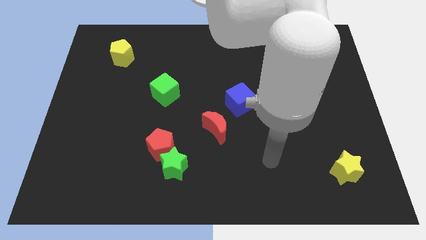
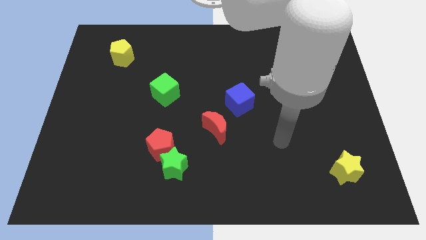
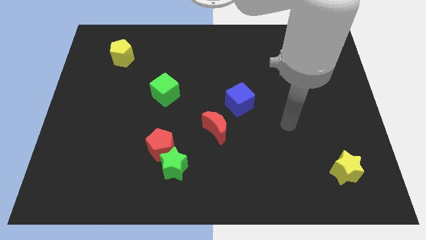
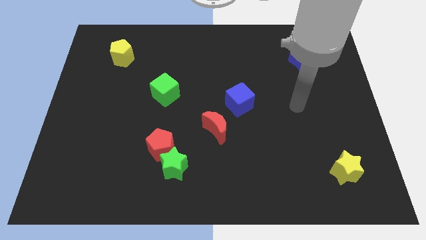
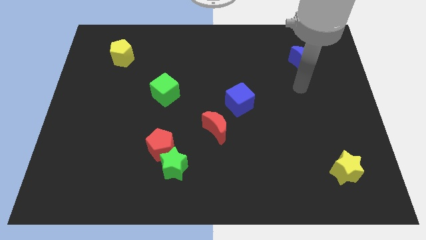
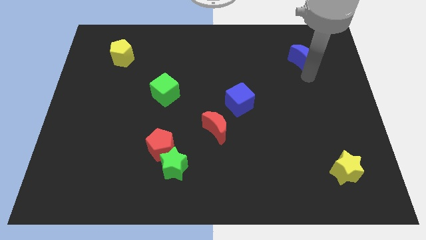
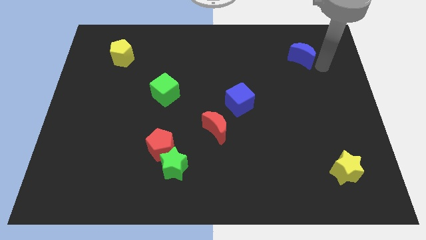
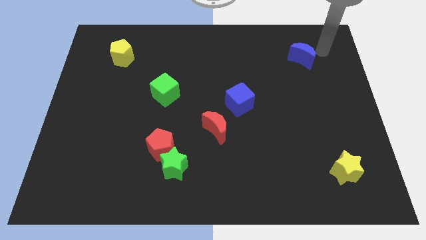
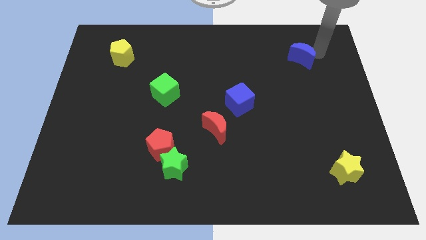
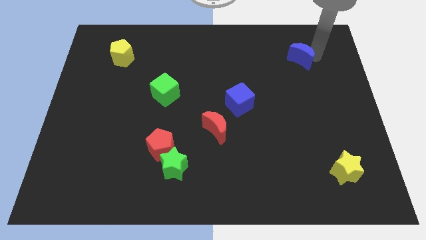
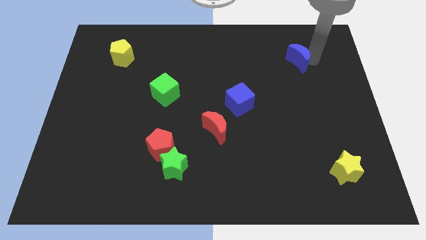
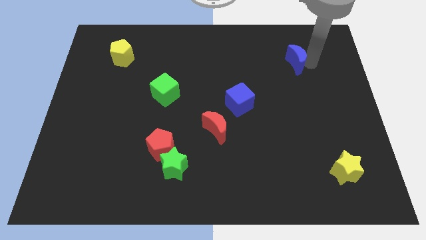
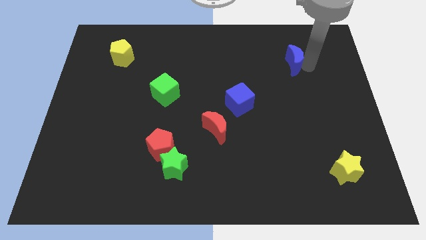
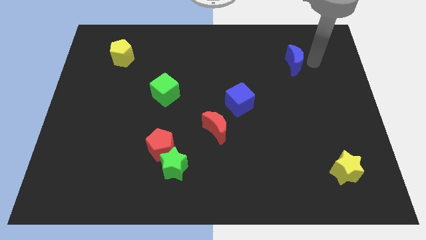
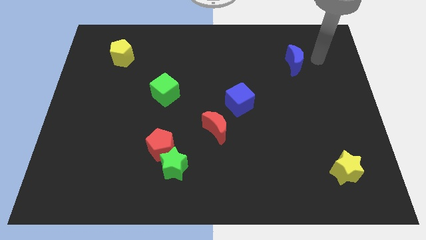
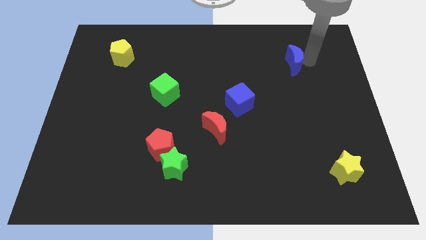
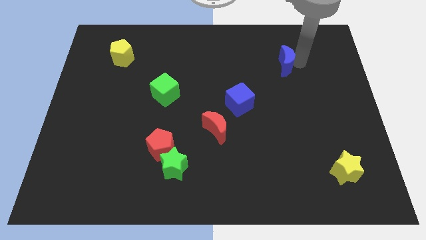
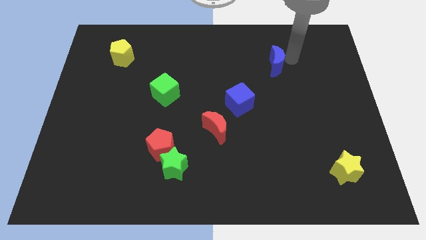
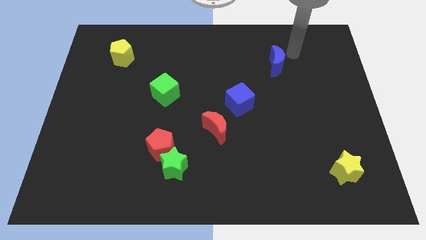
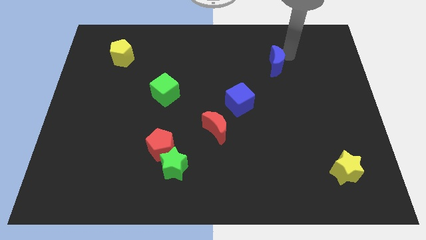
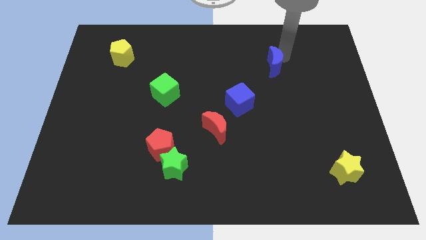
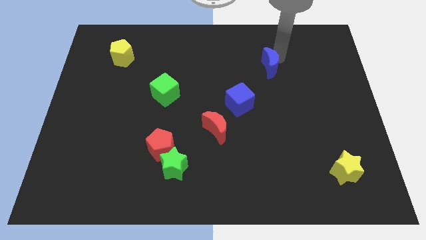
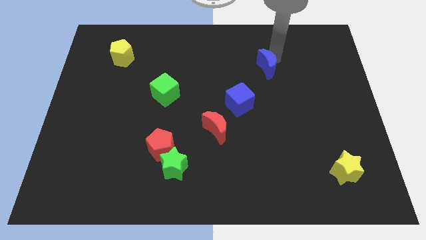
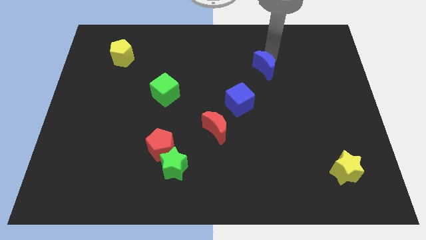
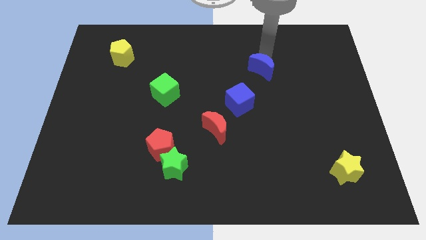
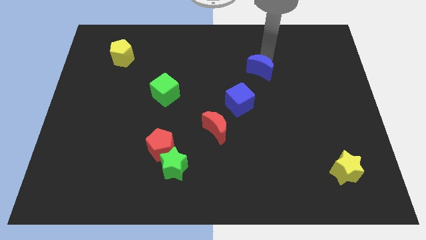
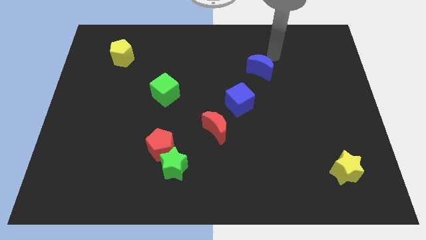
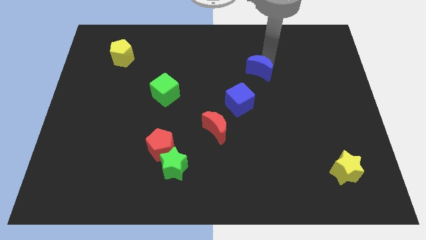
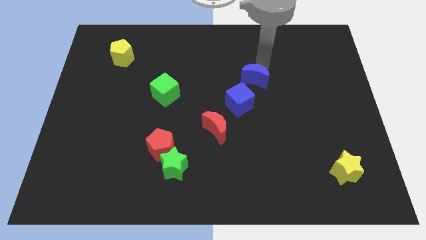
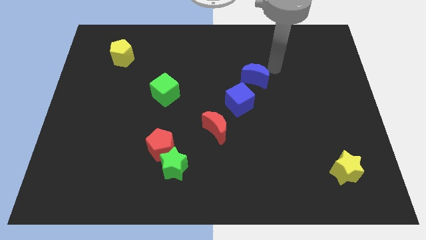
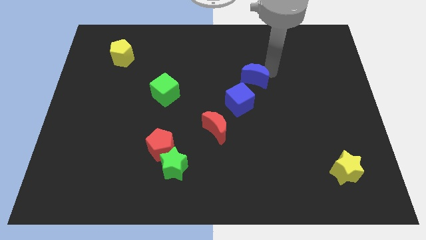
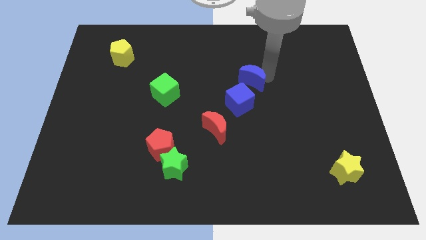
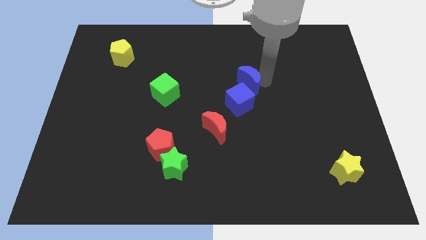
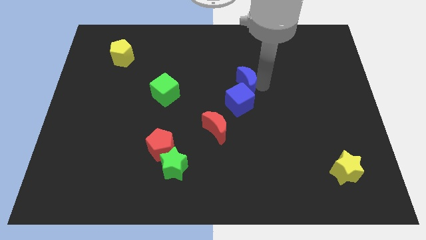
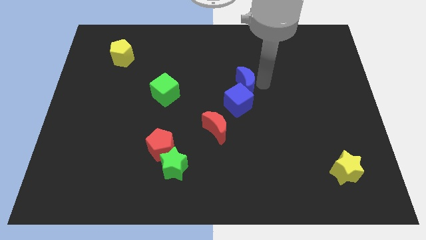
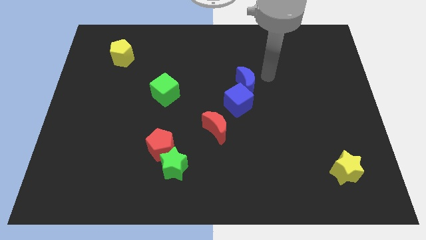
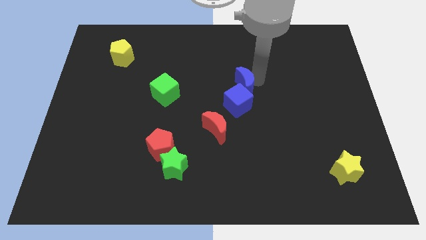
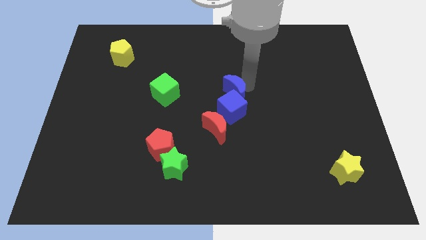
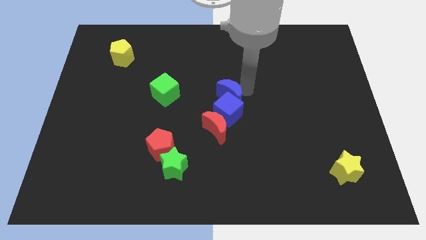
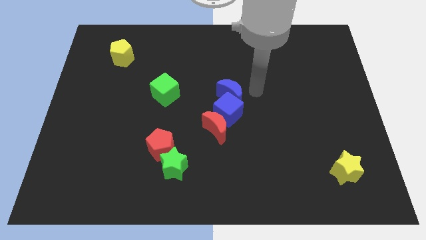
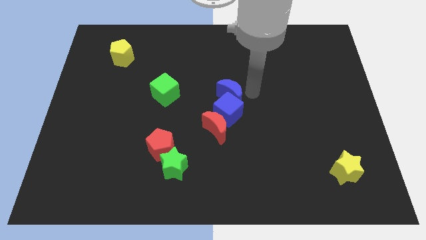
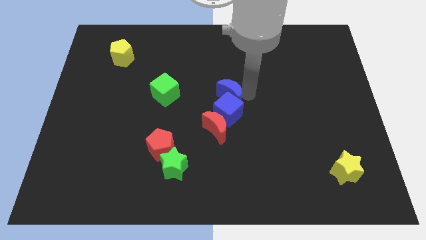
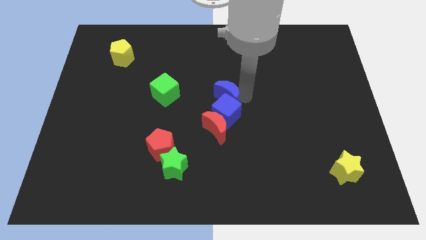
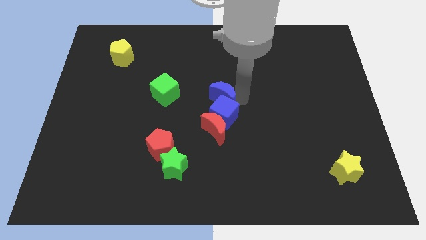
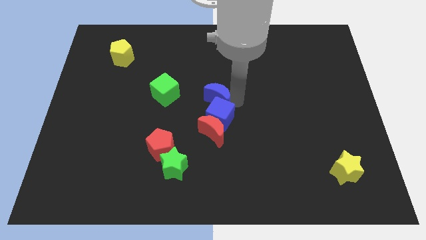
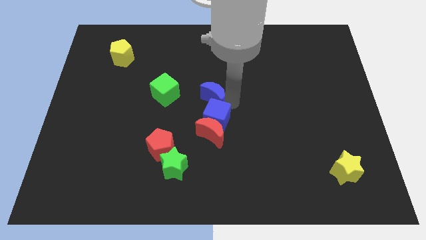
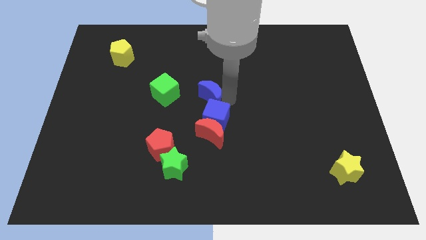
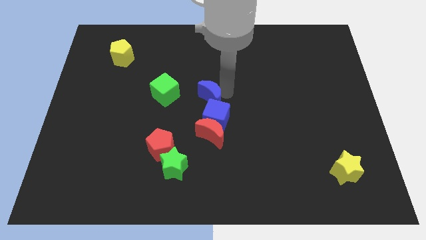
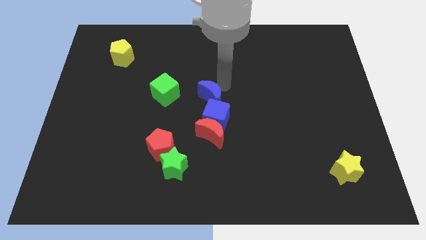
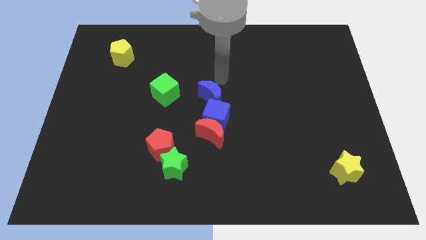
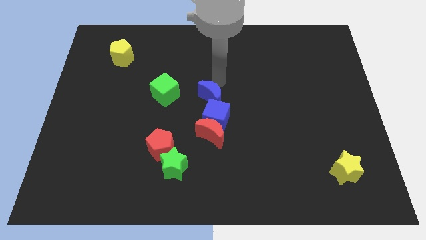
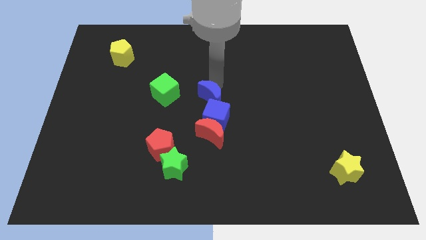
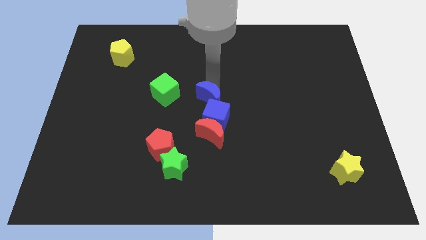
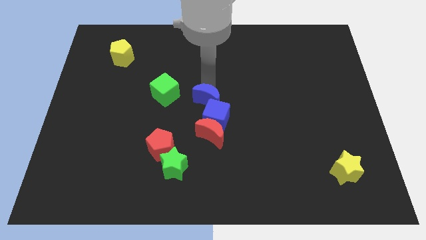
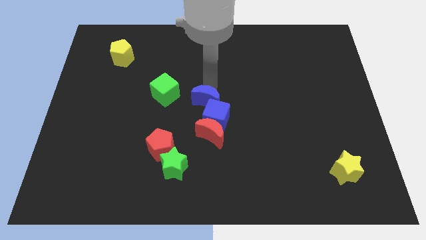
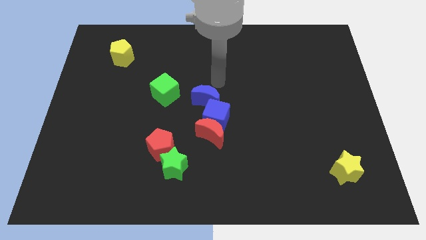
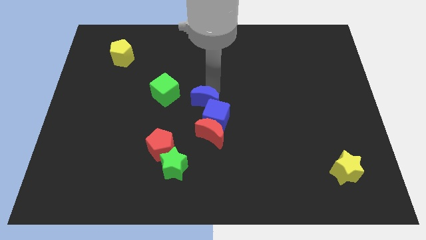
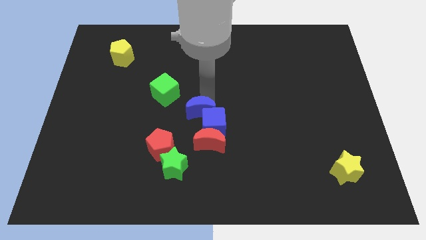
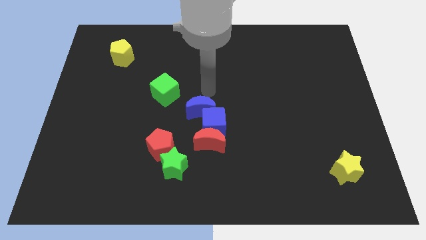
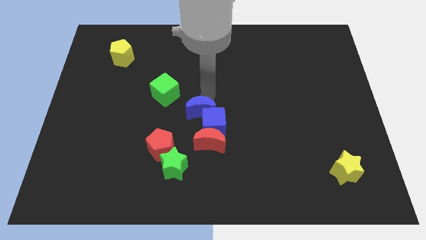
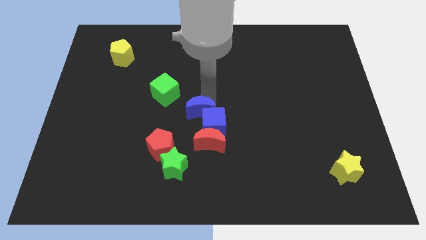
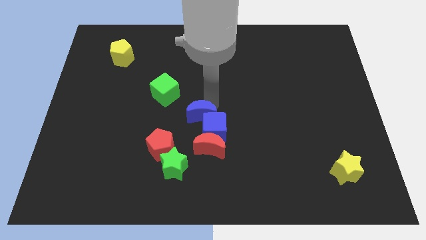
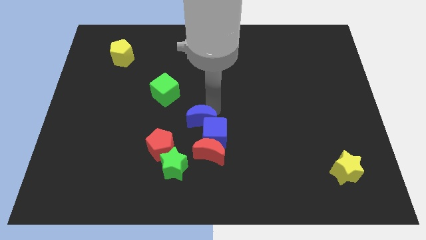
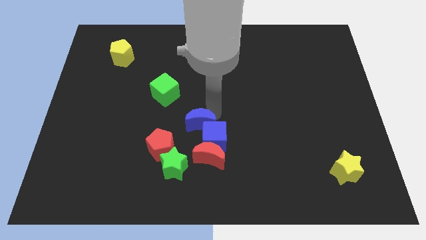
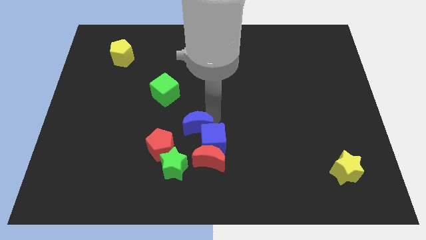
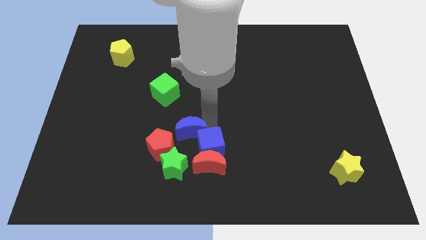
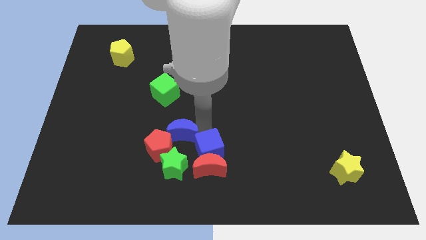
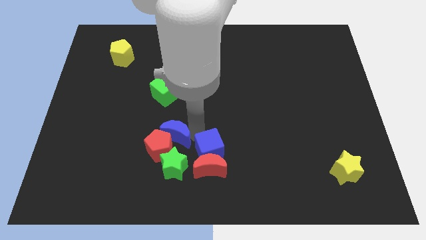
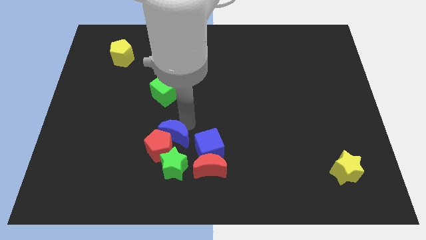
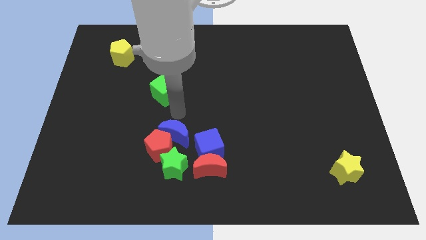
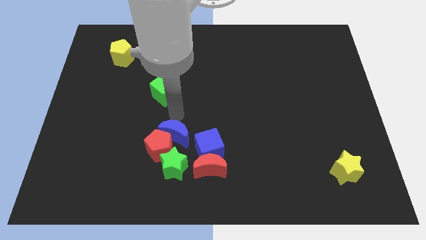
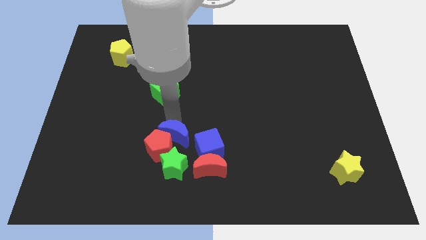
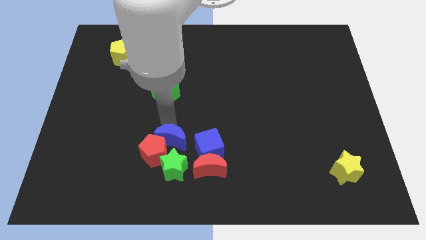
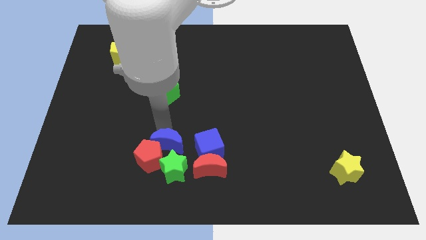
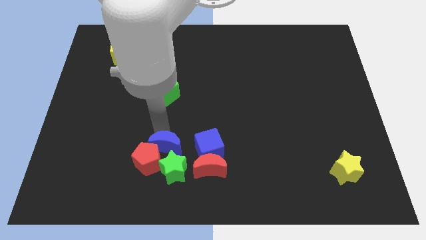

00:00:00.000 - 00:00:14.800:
push the blue moon to the green star
